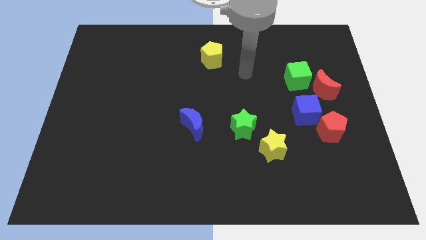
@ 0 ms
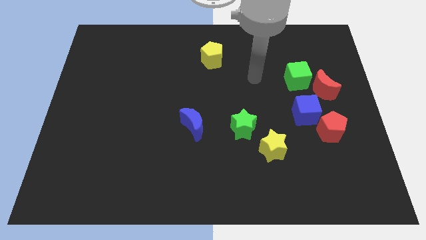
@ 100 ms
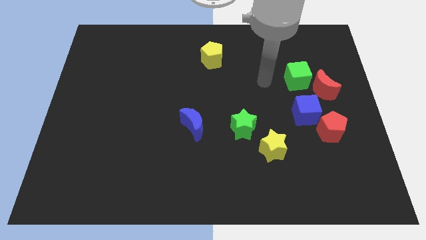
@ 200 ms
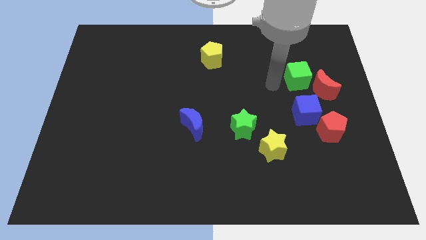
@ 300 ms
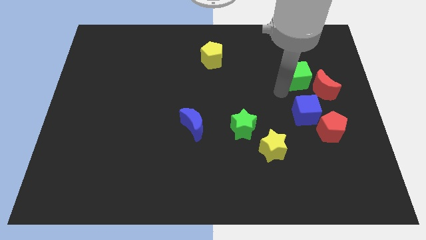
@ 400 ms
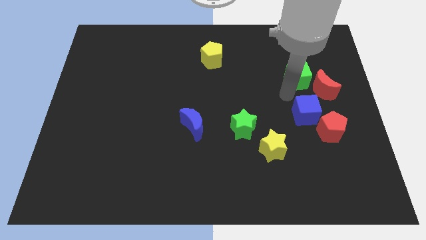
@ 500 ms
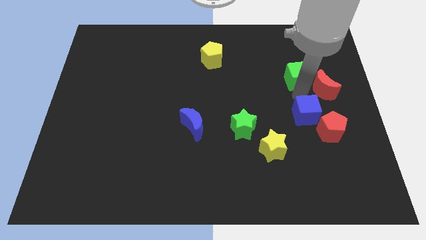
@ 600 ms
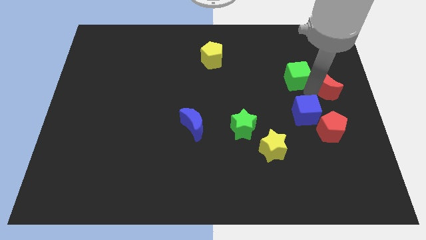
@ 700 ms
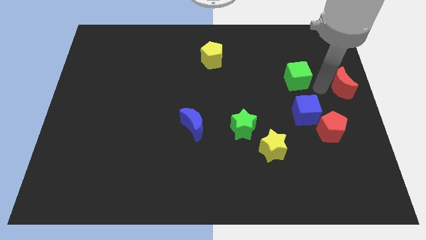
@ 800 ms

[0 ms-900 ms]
pull the green cube apart from the red moon

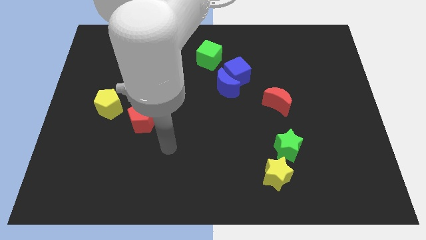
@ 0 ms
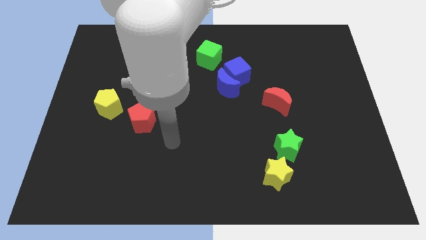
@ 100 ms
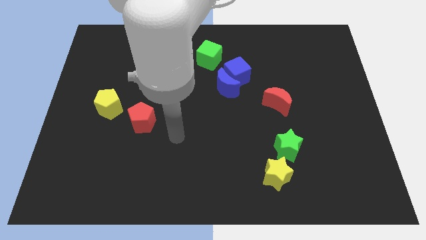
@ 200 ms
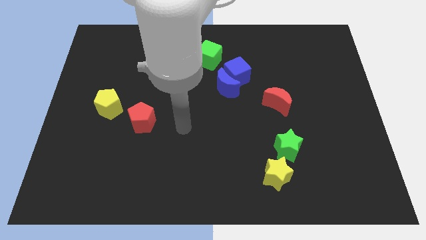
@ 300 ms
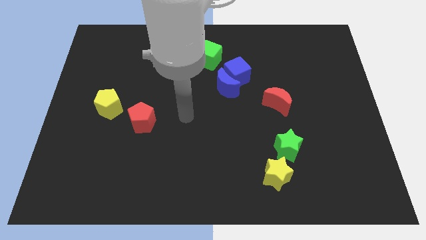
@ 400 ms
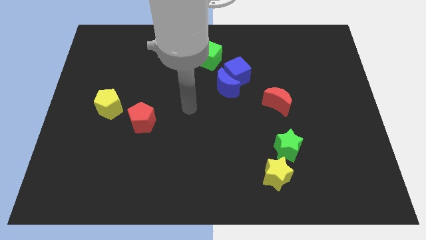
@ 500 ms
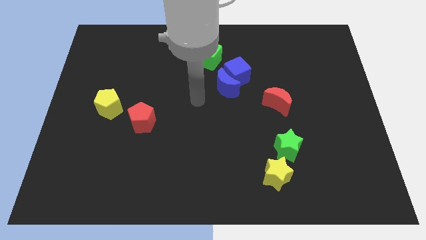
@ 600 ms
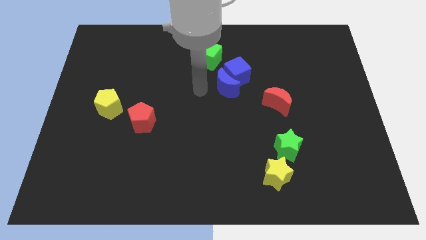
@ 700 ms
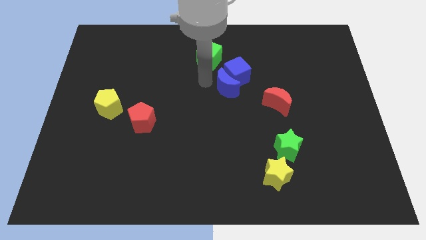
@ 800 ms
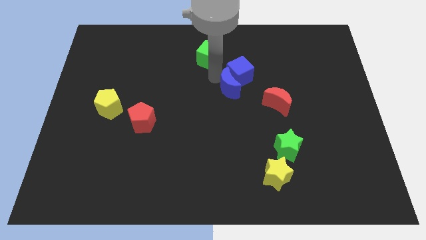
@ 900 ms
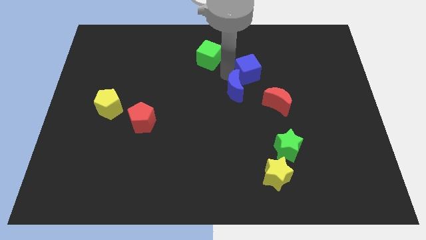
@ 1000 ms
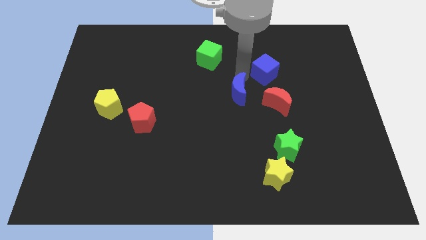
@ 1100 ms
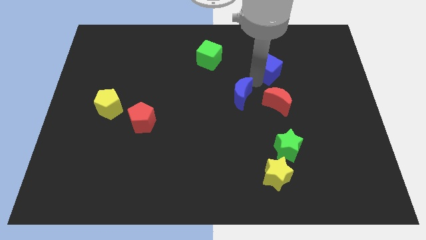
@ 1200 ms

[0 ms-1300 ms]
separate the blue moon from the blue cube

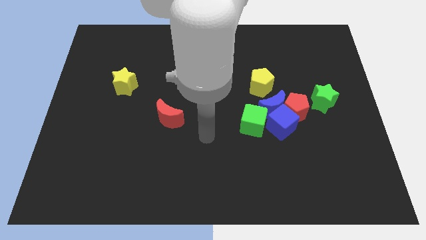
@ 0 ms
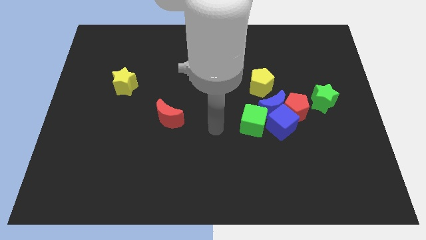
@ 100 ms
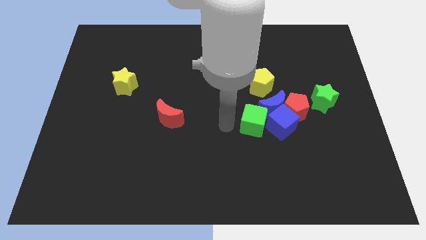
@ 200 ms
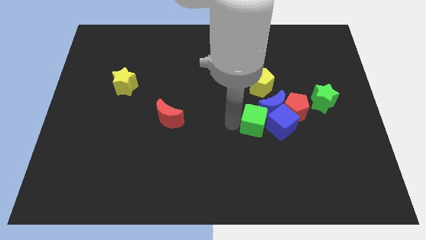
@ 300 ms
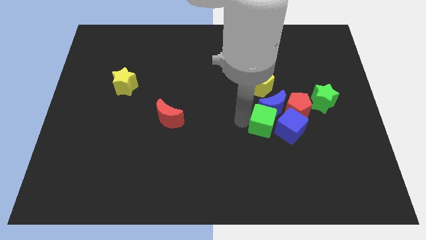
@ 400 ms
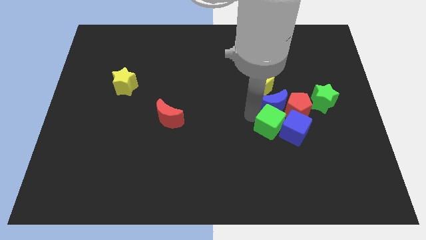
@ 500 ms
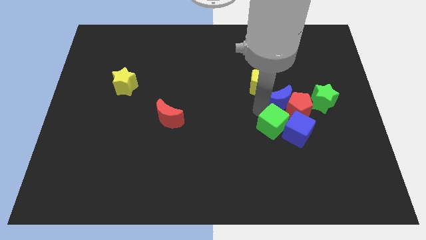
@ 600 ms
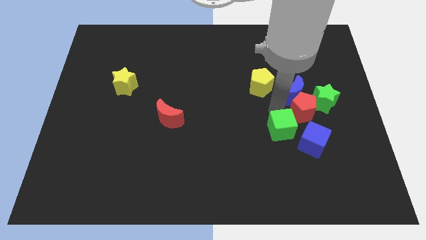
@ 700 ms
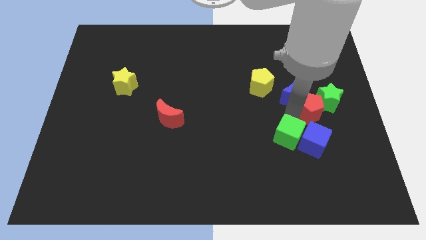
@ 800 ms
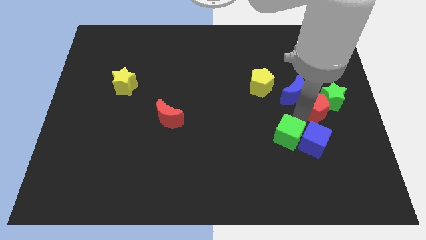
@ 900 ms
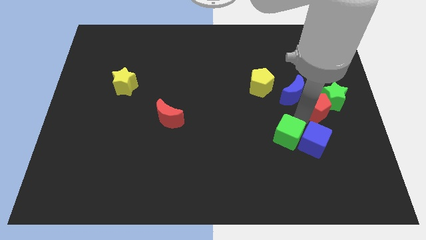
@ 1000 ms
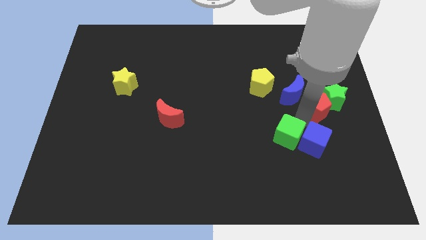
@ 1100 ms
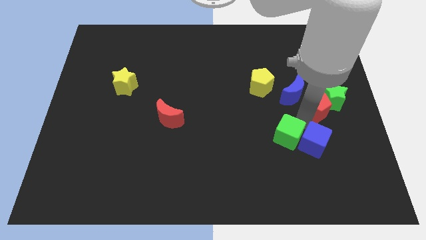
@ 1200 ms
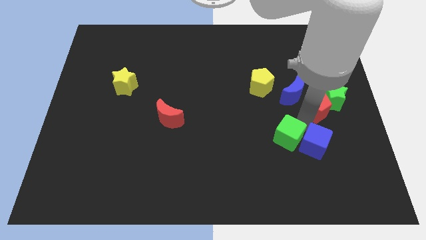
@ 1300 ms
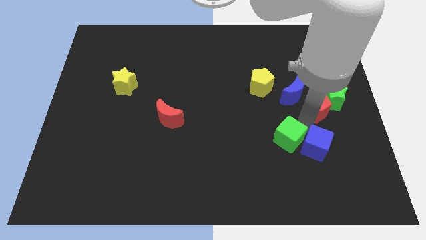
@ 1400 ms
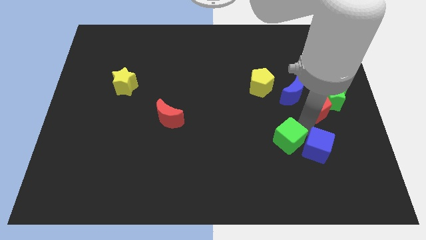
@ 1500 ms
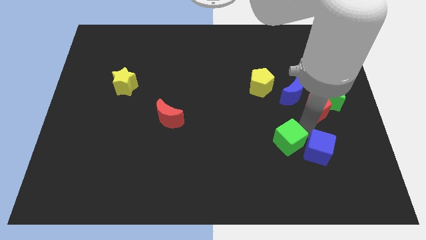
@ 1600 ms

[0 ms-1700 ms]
move the blue cube away from the group

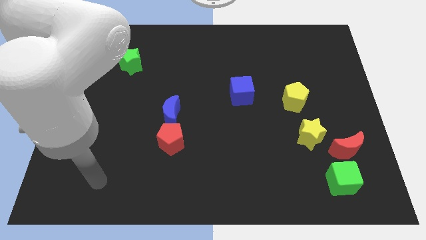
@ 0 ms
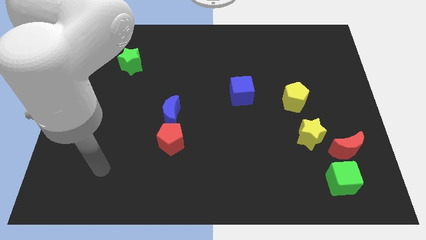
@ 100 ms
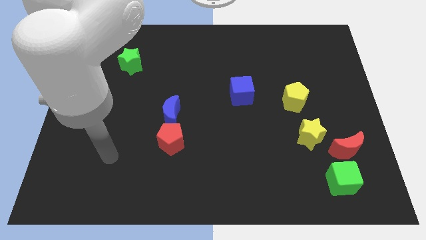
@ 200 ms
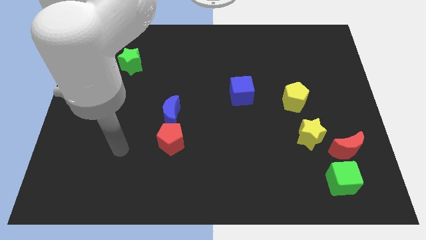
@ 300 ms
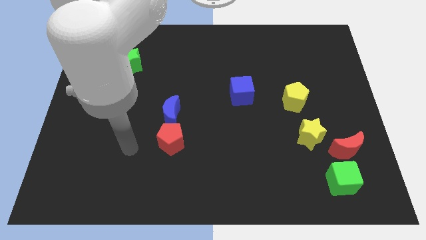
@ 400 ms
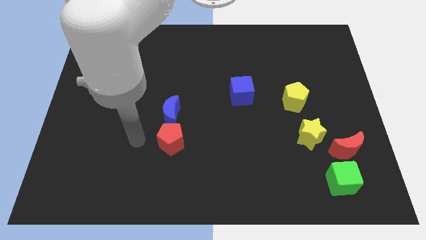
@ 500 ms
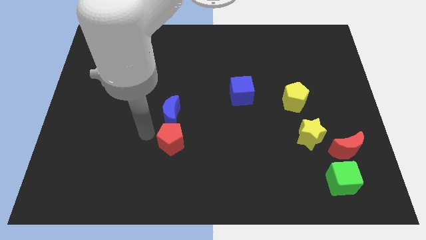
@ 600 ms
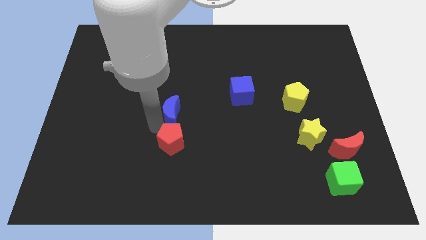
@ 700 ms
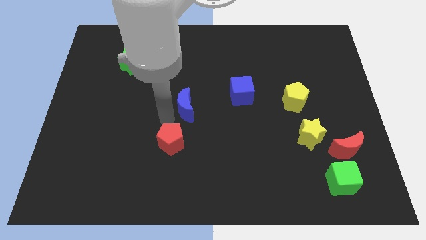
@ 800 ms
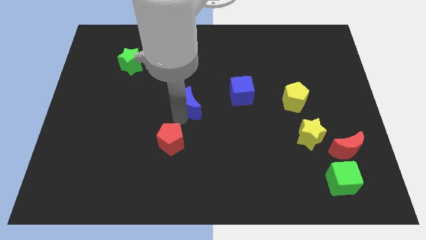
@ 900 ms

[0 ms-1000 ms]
move the red pentagon away from the blue moon

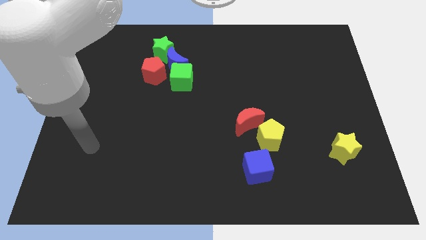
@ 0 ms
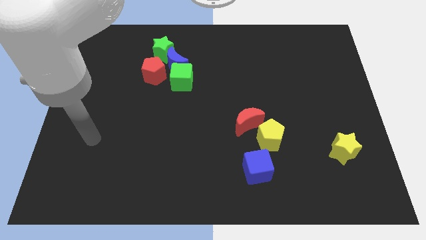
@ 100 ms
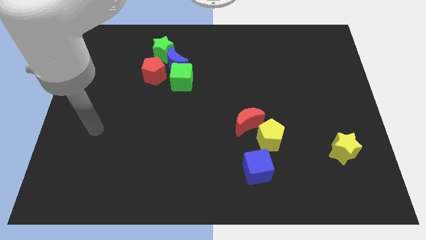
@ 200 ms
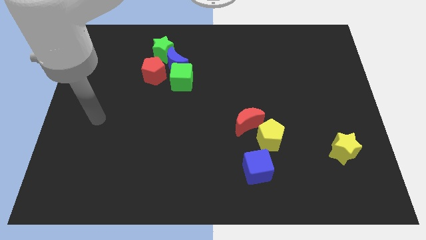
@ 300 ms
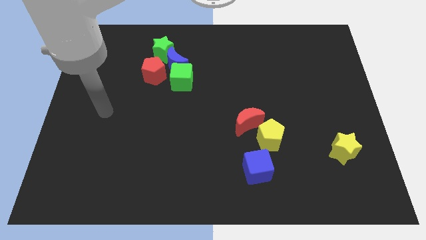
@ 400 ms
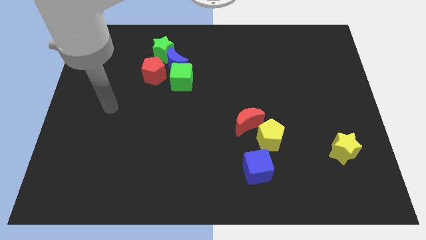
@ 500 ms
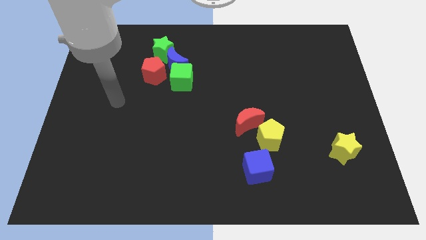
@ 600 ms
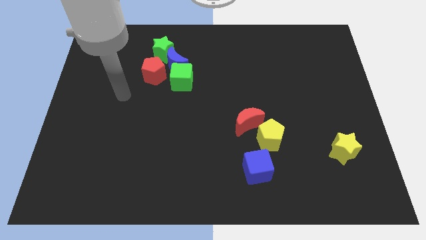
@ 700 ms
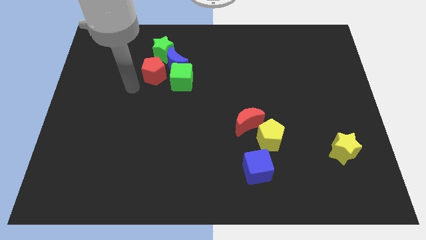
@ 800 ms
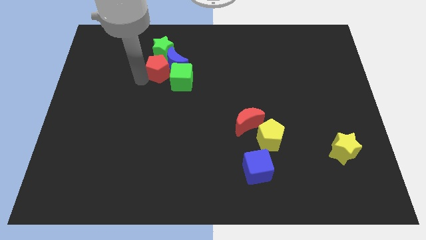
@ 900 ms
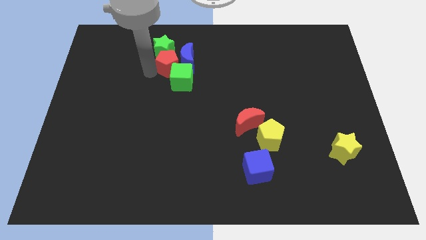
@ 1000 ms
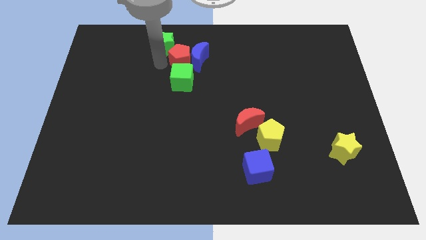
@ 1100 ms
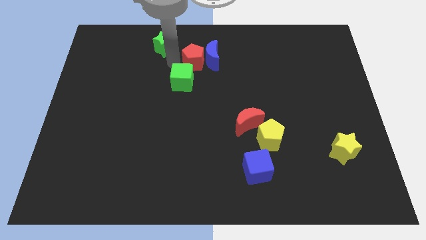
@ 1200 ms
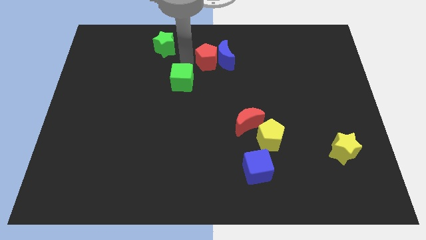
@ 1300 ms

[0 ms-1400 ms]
separate the blue moon from the green cube, red pentagon, and green star

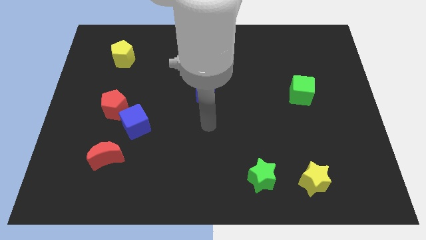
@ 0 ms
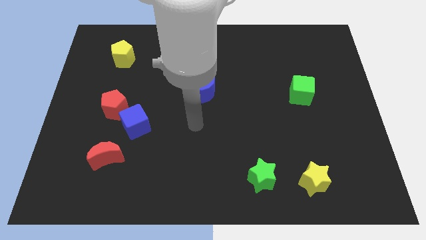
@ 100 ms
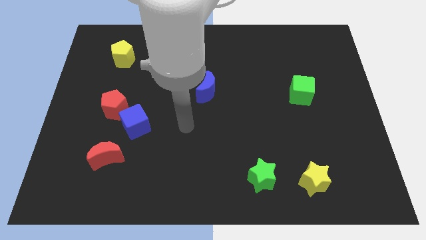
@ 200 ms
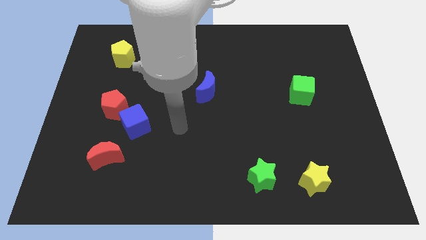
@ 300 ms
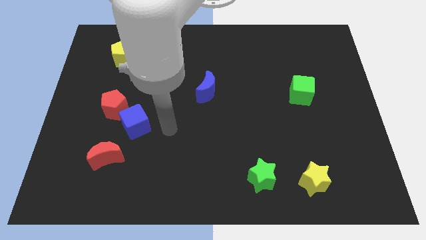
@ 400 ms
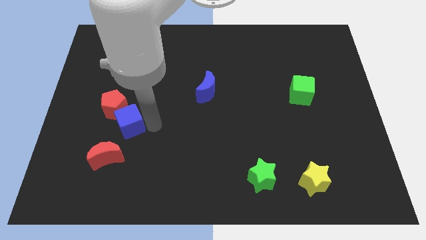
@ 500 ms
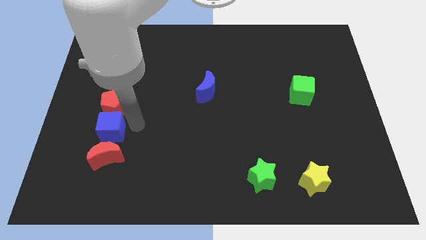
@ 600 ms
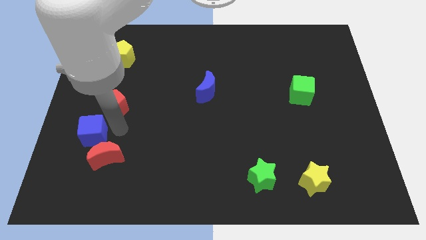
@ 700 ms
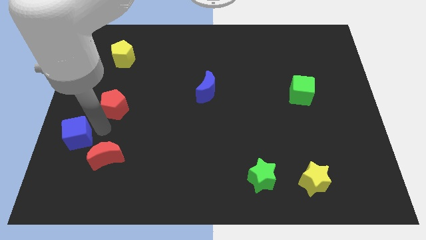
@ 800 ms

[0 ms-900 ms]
move the red pentagon away from the blue cube

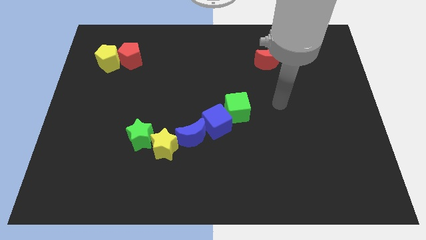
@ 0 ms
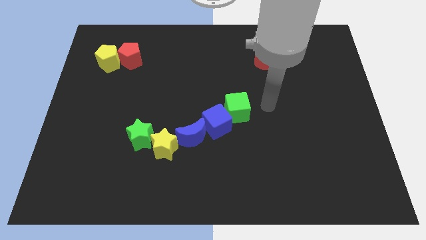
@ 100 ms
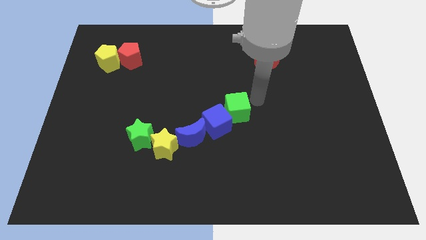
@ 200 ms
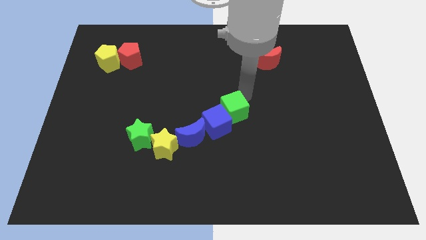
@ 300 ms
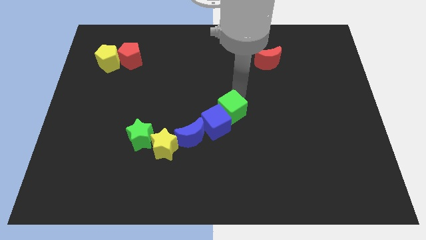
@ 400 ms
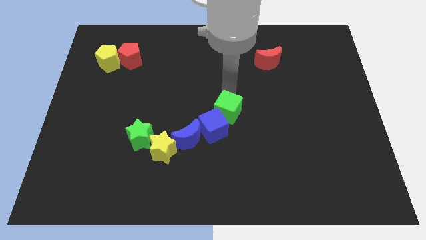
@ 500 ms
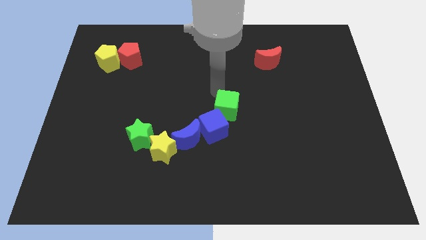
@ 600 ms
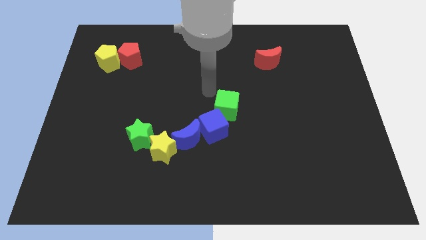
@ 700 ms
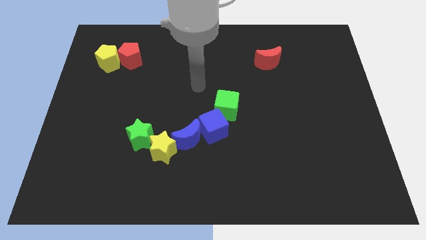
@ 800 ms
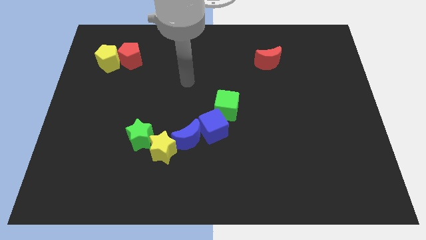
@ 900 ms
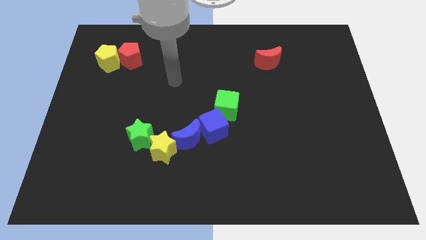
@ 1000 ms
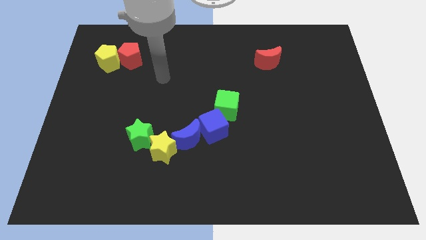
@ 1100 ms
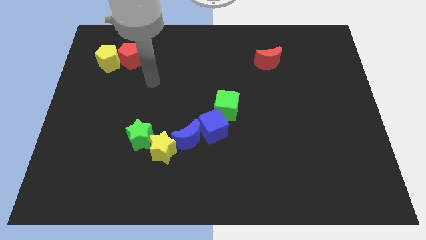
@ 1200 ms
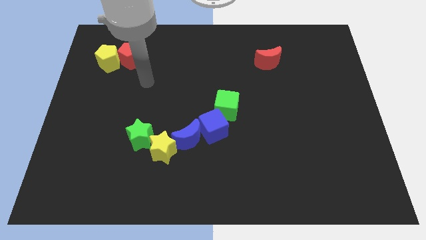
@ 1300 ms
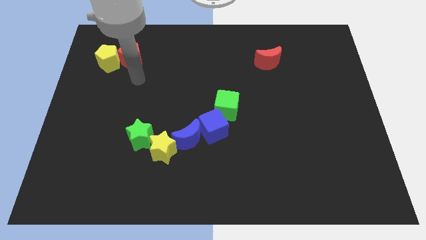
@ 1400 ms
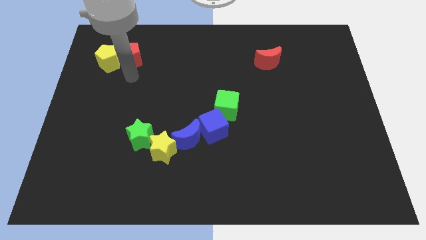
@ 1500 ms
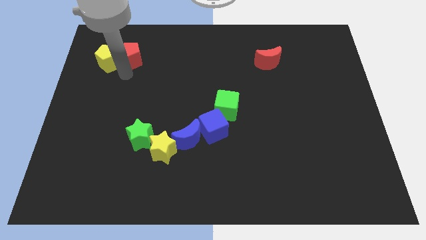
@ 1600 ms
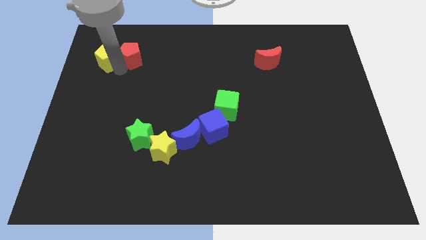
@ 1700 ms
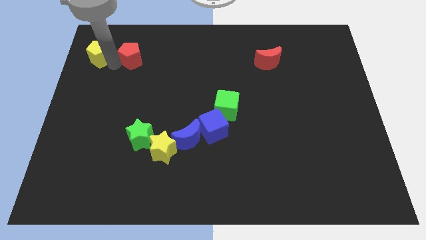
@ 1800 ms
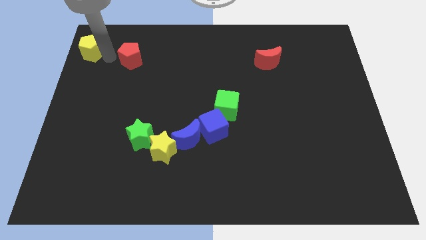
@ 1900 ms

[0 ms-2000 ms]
move the red pentagon away from the yellow pentagon

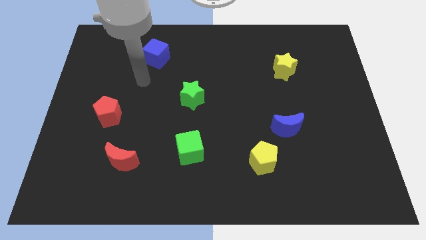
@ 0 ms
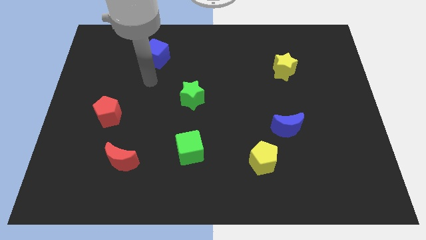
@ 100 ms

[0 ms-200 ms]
pull the blue moon apart from the yellow pentagon
